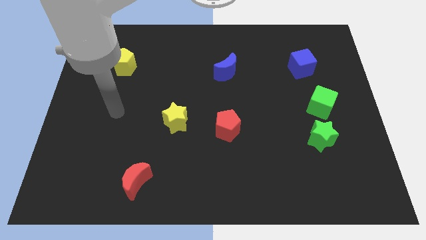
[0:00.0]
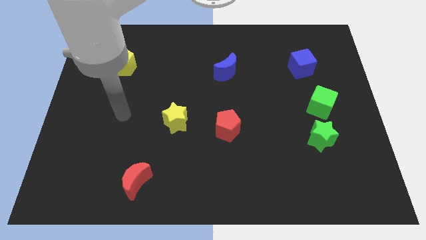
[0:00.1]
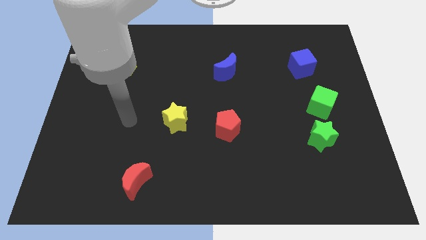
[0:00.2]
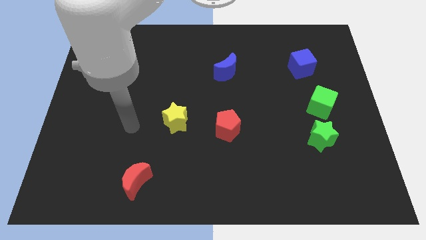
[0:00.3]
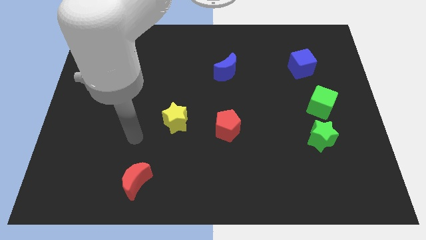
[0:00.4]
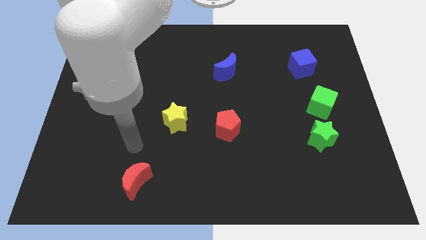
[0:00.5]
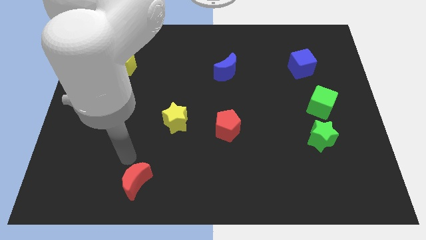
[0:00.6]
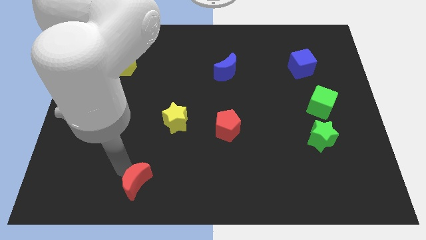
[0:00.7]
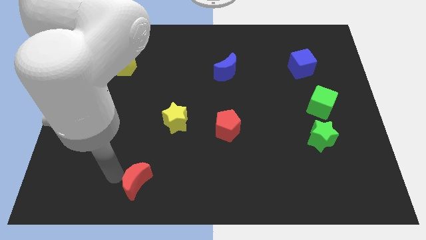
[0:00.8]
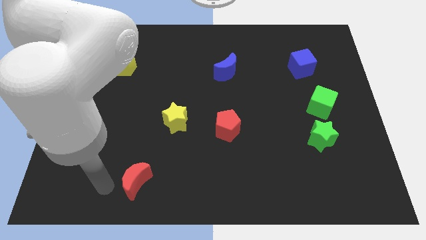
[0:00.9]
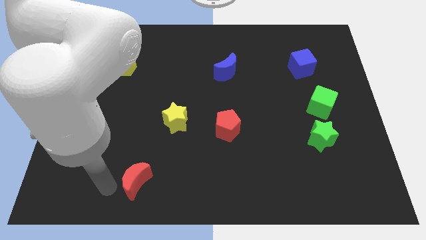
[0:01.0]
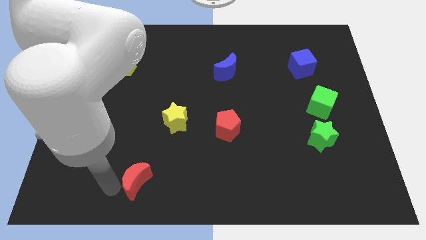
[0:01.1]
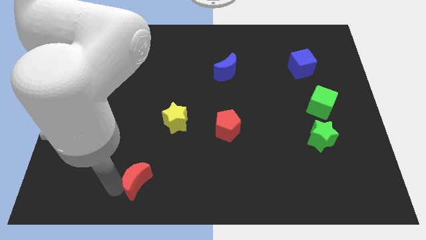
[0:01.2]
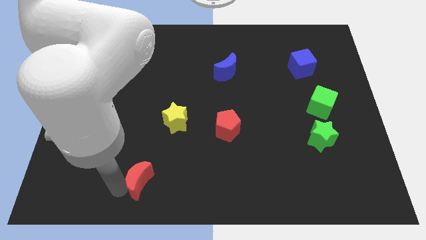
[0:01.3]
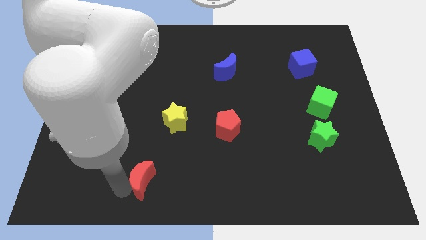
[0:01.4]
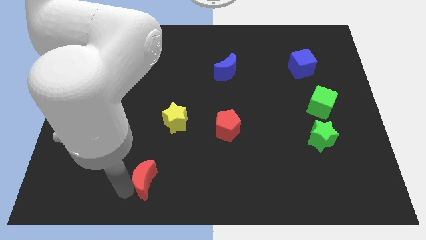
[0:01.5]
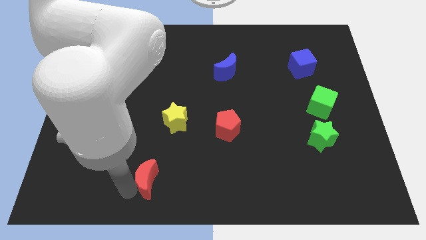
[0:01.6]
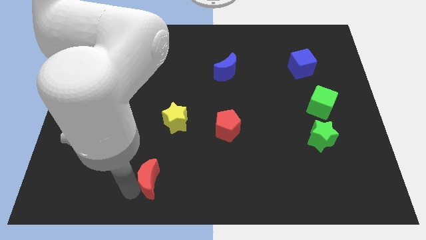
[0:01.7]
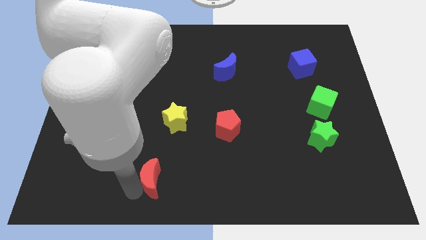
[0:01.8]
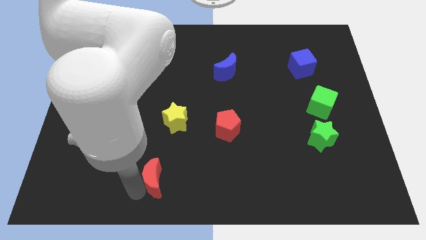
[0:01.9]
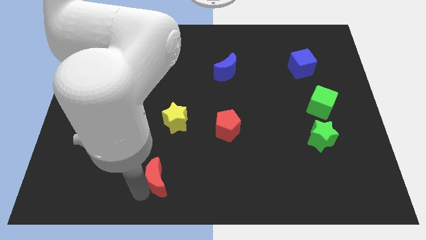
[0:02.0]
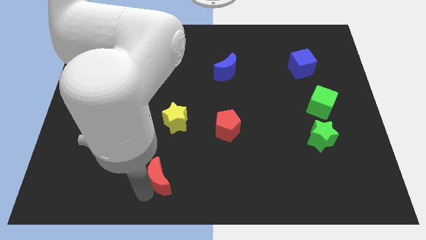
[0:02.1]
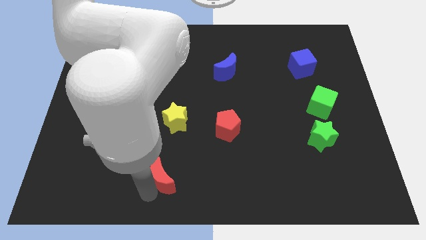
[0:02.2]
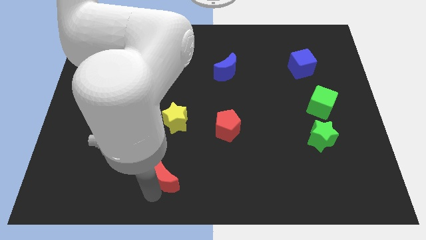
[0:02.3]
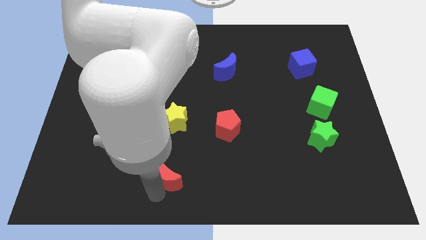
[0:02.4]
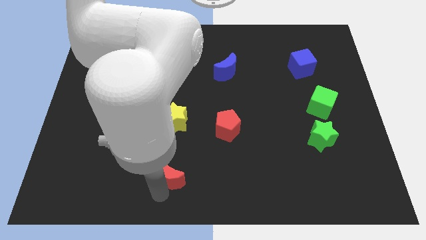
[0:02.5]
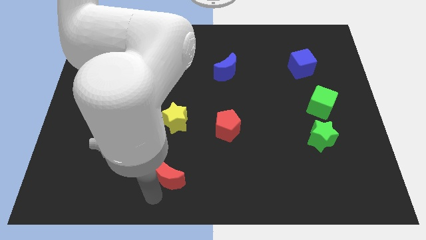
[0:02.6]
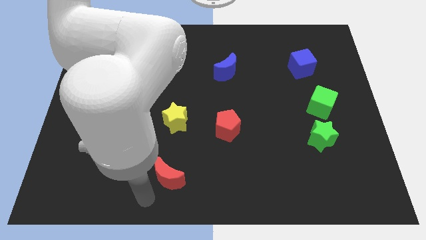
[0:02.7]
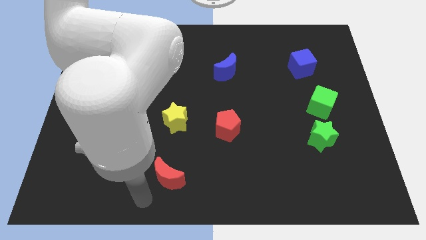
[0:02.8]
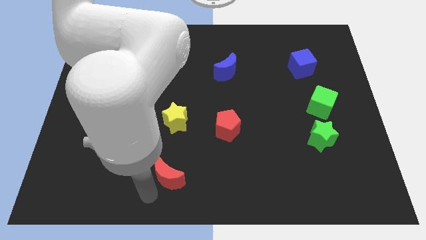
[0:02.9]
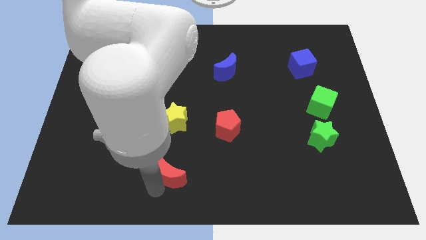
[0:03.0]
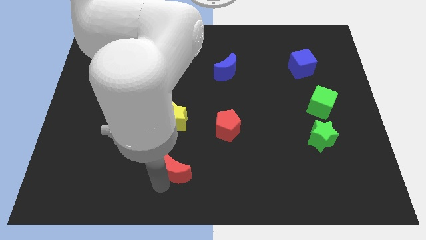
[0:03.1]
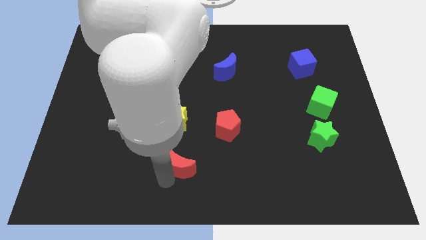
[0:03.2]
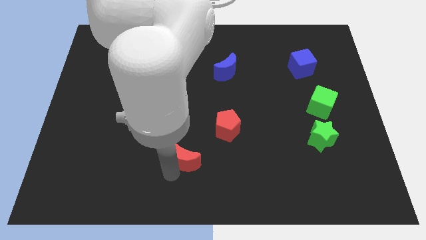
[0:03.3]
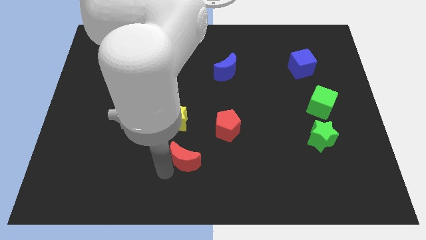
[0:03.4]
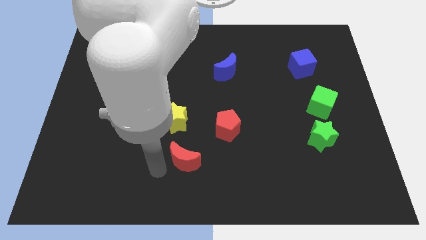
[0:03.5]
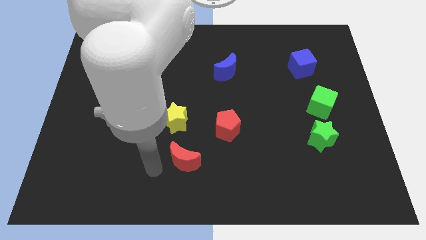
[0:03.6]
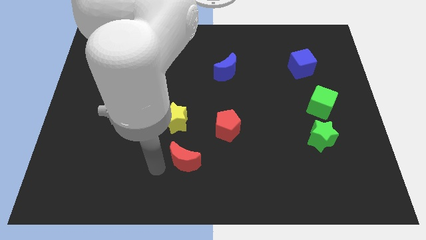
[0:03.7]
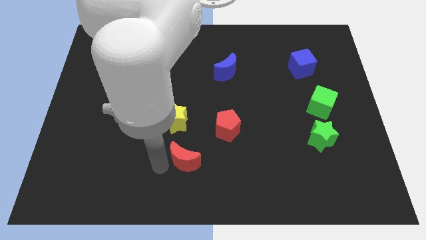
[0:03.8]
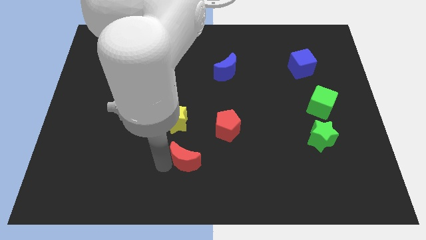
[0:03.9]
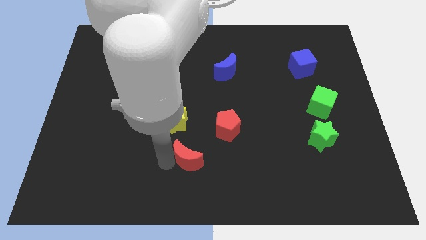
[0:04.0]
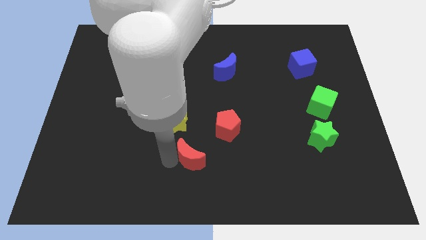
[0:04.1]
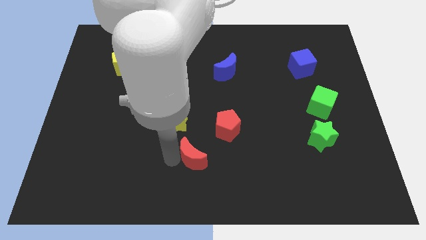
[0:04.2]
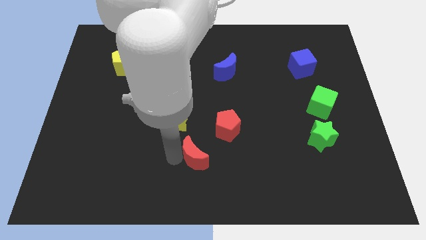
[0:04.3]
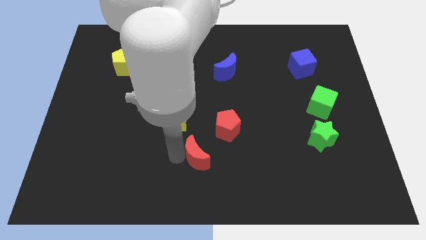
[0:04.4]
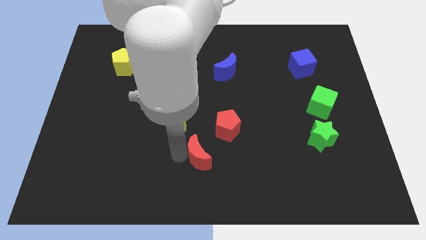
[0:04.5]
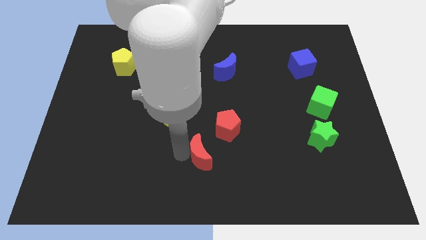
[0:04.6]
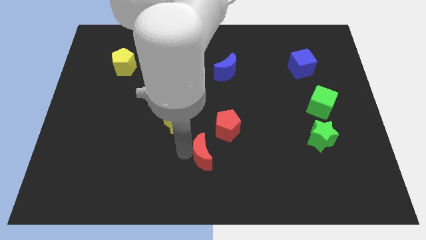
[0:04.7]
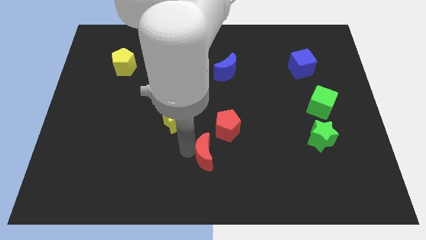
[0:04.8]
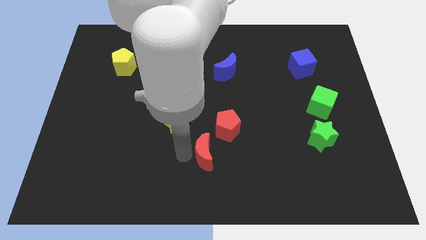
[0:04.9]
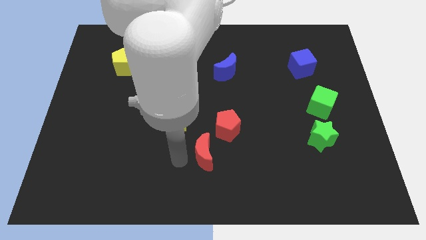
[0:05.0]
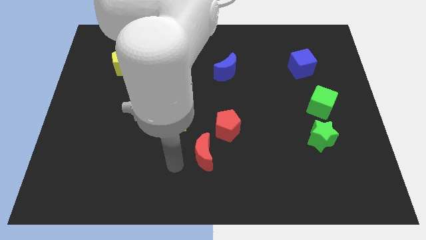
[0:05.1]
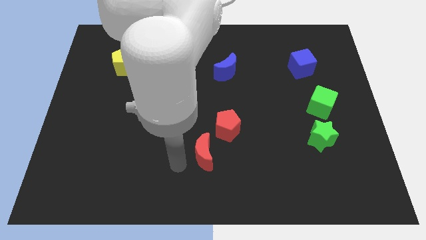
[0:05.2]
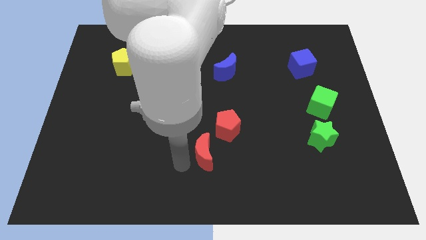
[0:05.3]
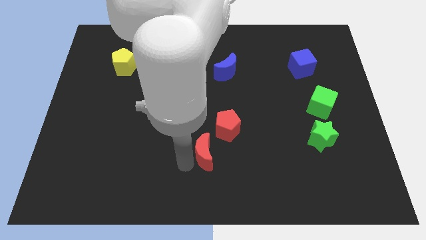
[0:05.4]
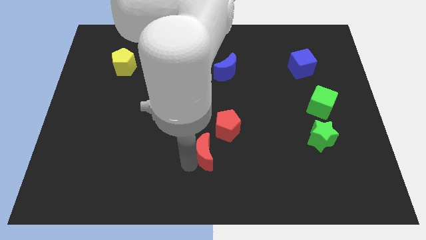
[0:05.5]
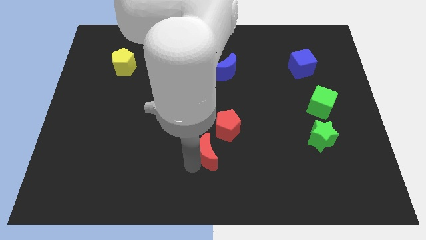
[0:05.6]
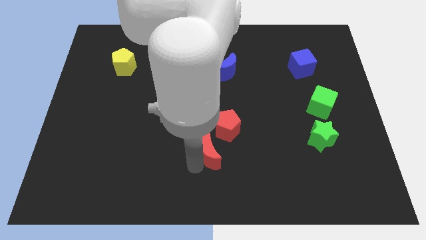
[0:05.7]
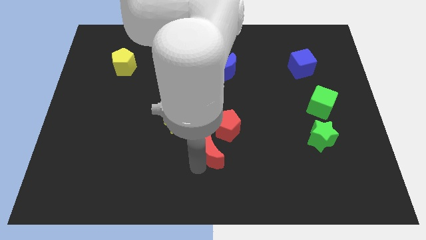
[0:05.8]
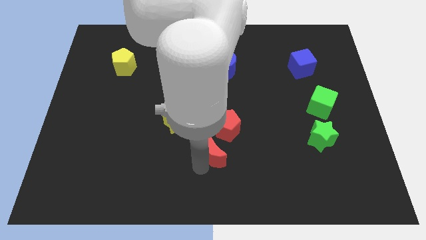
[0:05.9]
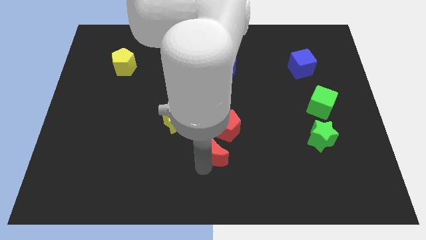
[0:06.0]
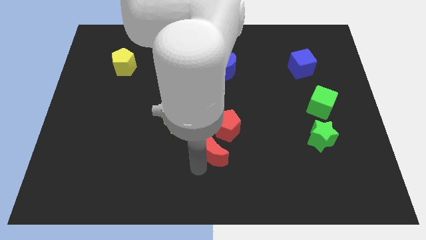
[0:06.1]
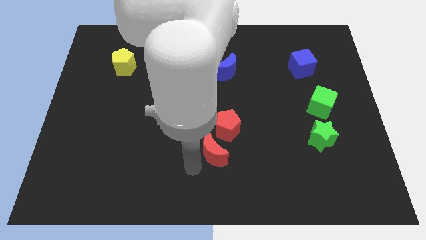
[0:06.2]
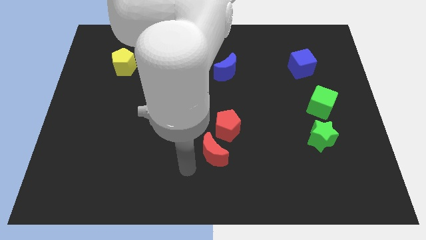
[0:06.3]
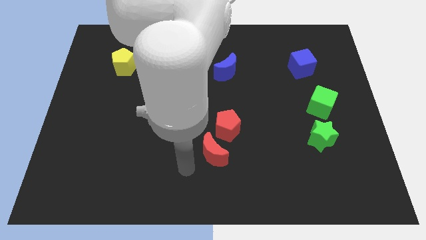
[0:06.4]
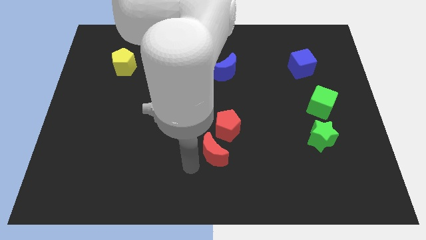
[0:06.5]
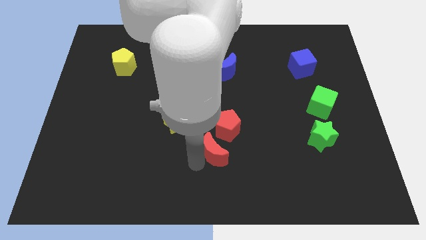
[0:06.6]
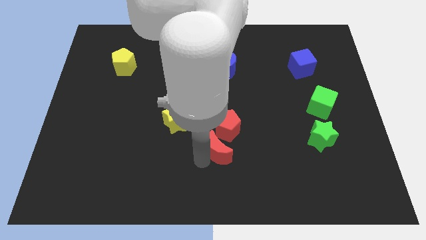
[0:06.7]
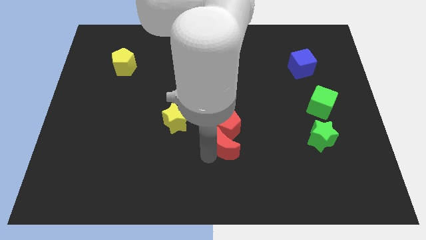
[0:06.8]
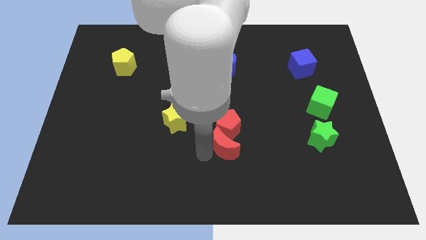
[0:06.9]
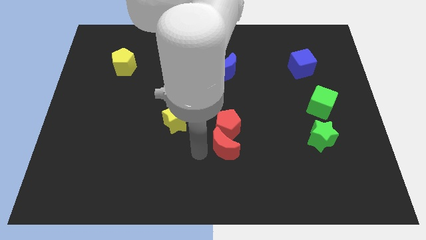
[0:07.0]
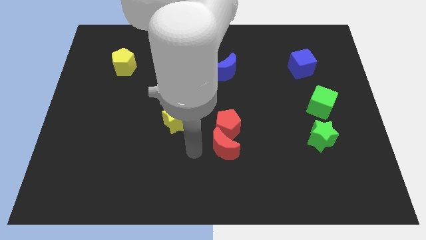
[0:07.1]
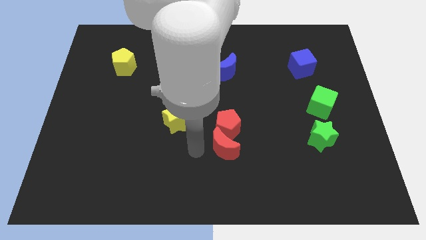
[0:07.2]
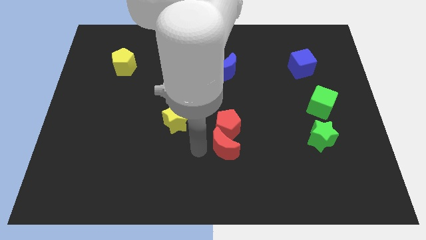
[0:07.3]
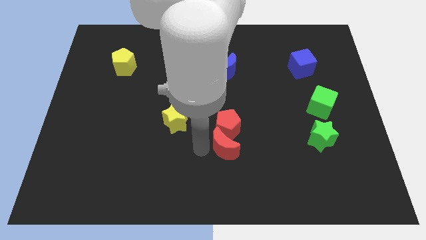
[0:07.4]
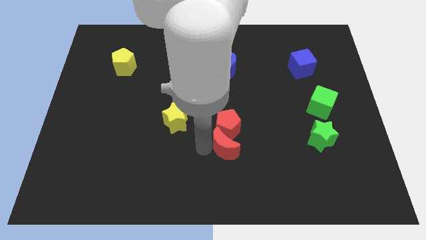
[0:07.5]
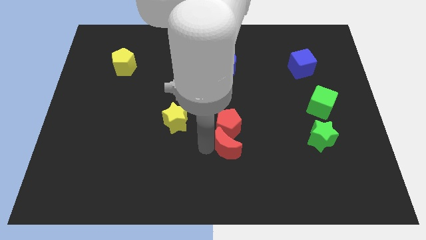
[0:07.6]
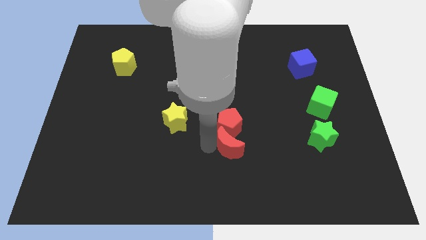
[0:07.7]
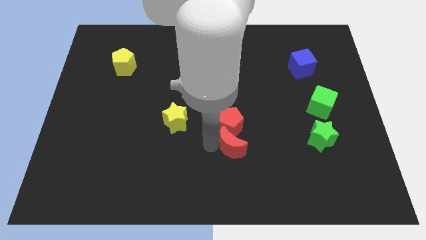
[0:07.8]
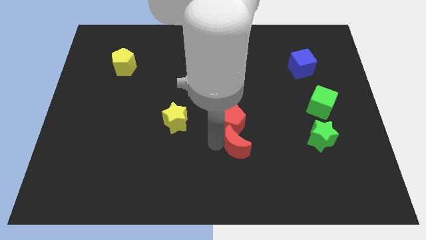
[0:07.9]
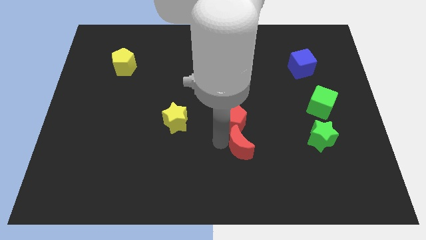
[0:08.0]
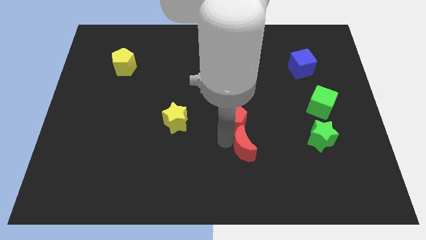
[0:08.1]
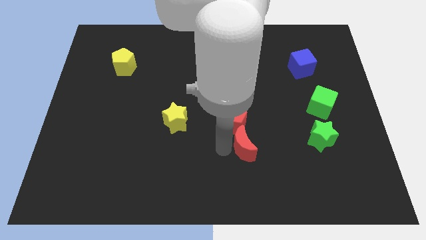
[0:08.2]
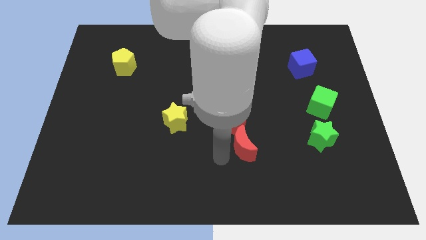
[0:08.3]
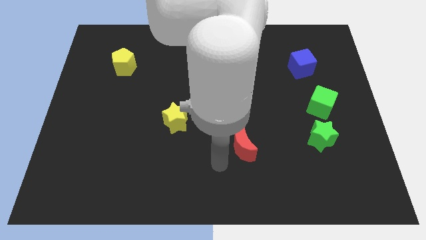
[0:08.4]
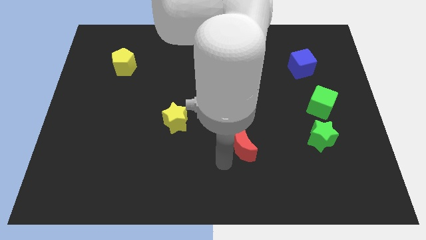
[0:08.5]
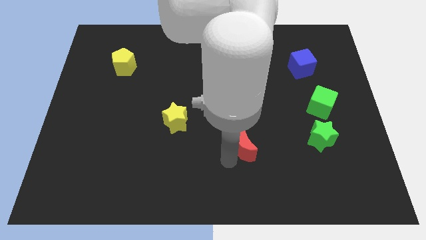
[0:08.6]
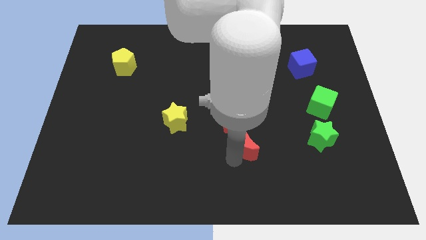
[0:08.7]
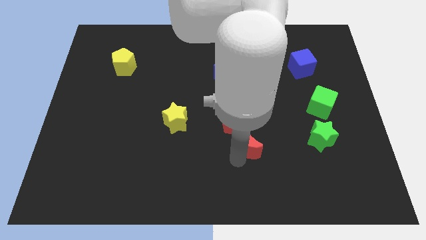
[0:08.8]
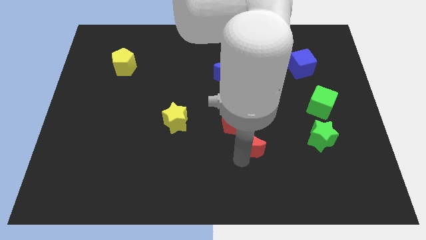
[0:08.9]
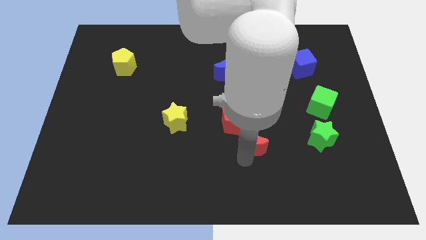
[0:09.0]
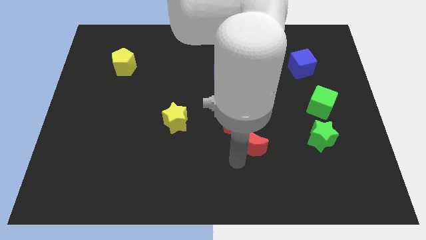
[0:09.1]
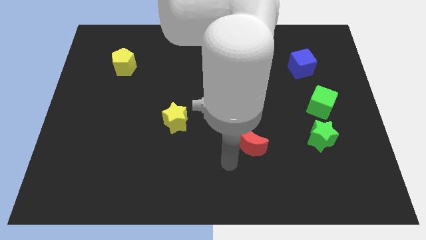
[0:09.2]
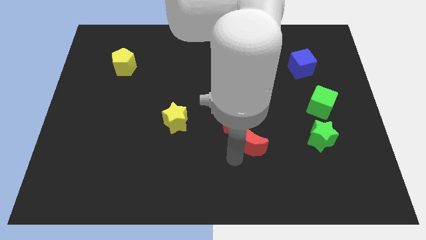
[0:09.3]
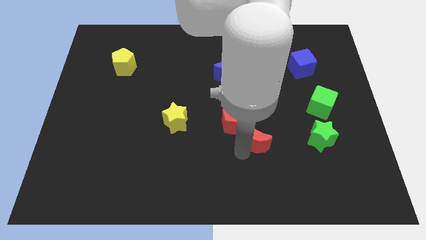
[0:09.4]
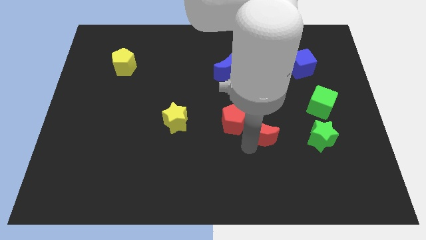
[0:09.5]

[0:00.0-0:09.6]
slide the red moon just right of the red pentagon
